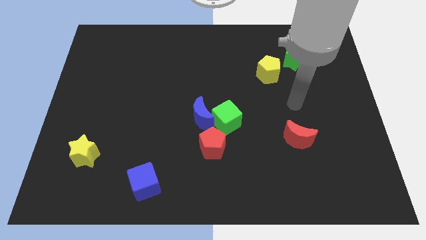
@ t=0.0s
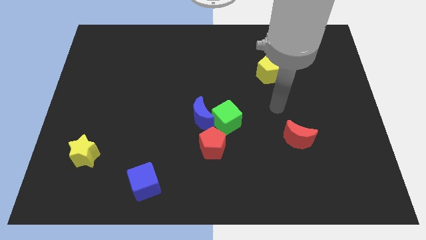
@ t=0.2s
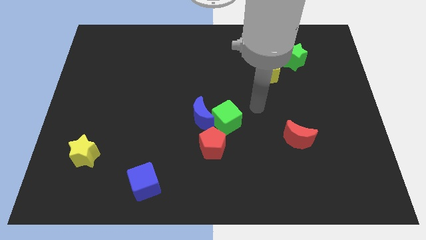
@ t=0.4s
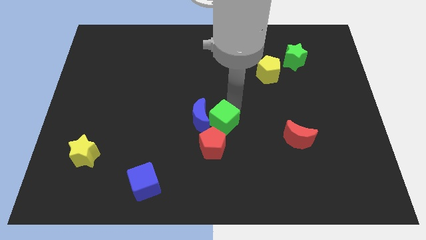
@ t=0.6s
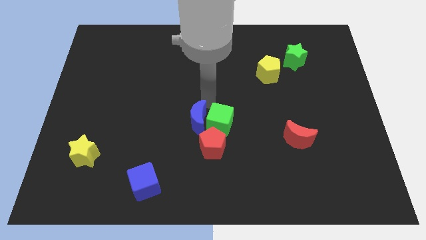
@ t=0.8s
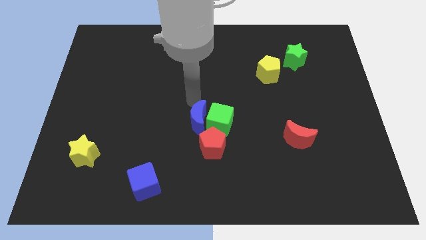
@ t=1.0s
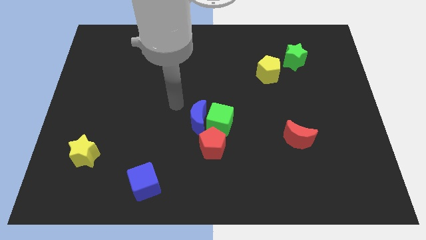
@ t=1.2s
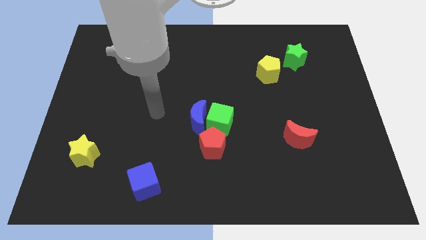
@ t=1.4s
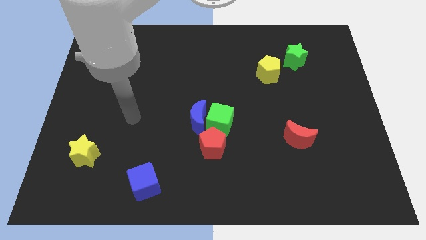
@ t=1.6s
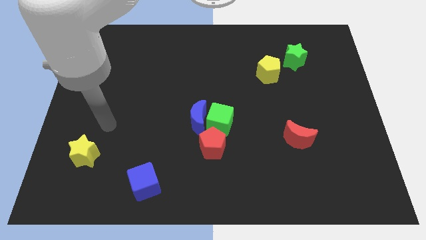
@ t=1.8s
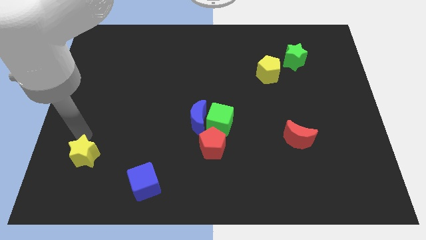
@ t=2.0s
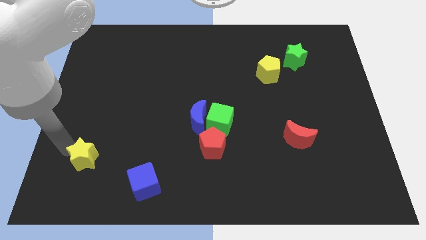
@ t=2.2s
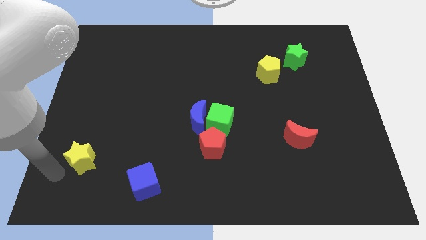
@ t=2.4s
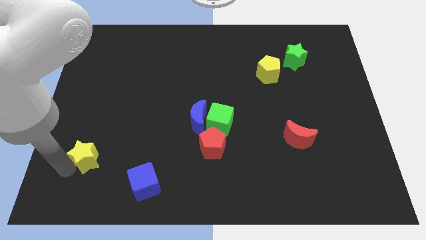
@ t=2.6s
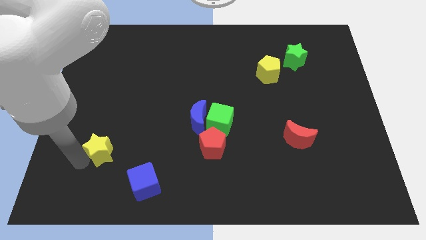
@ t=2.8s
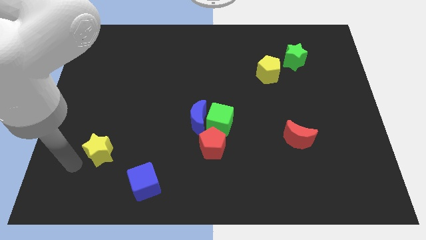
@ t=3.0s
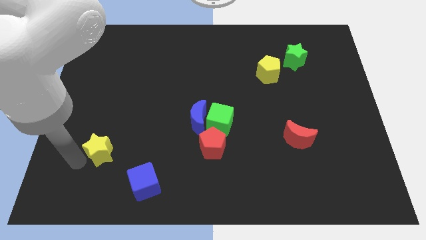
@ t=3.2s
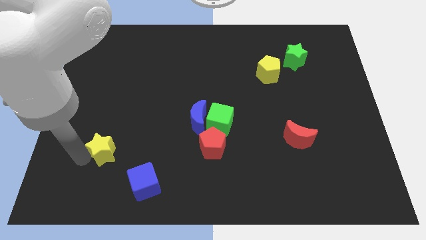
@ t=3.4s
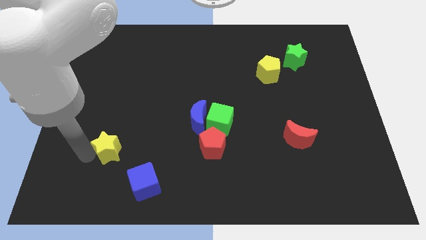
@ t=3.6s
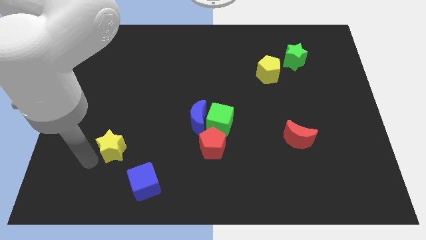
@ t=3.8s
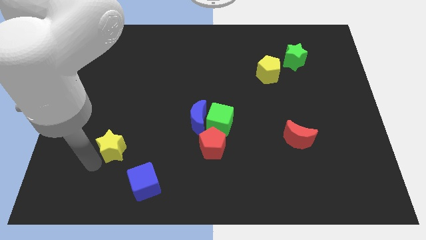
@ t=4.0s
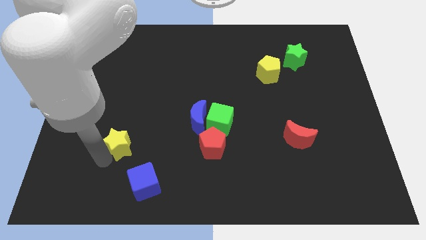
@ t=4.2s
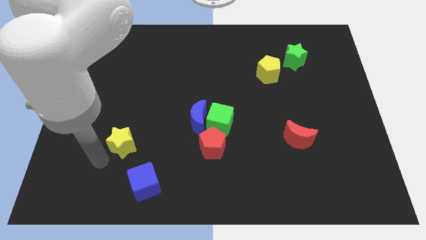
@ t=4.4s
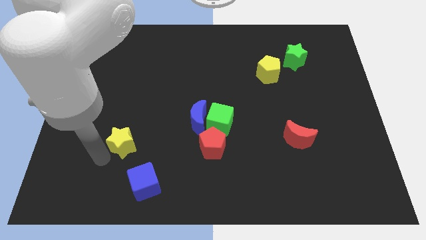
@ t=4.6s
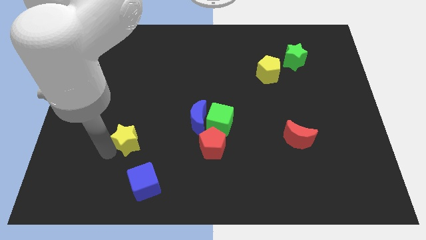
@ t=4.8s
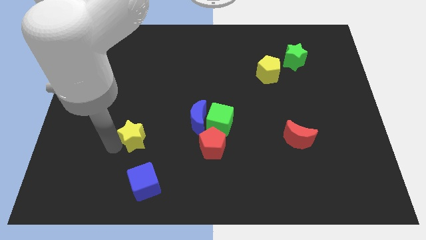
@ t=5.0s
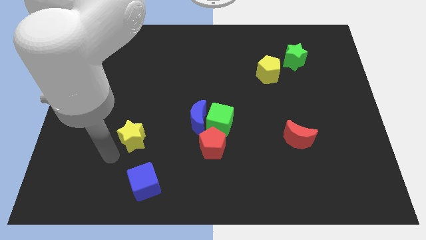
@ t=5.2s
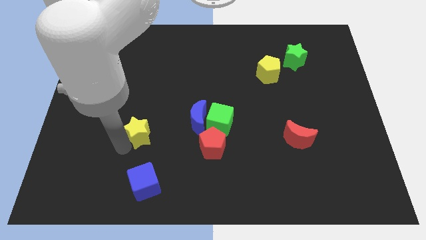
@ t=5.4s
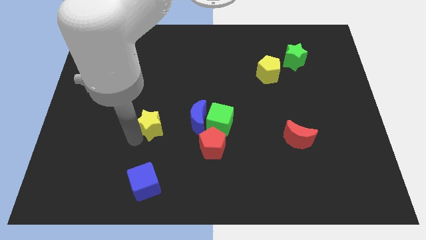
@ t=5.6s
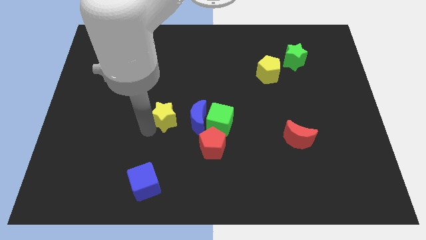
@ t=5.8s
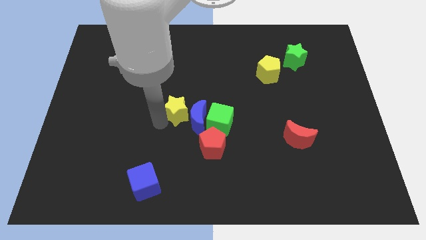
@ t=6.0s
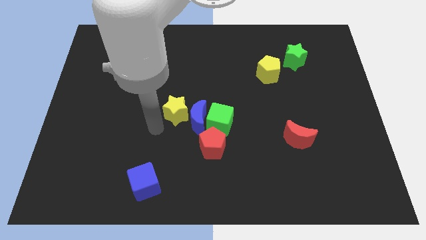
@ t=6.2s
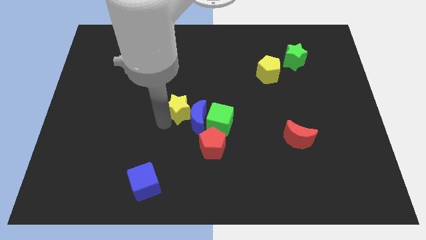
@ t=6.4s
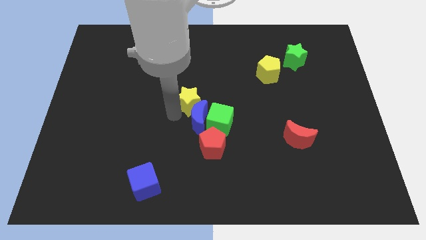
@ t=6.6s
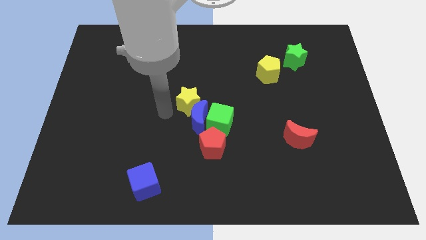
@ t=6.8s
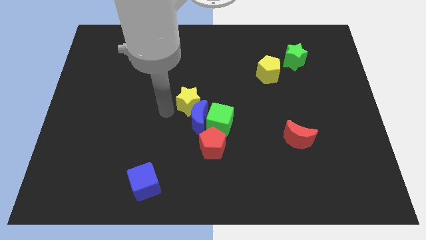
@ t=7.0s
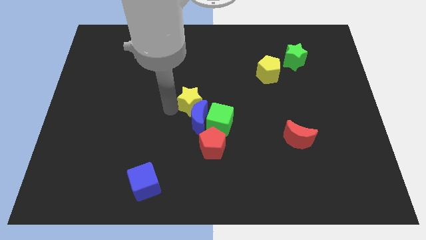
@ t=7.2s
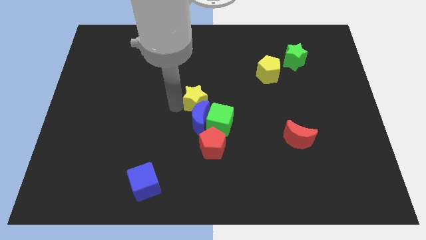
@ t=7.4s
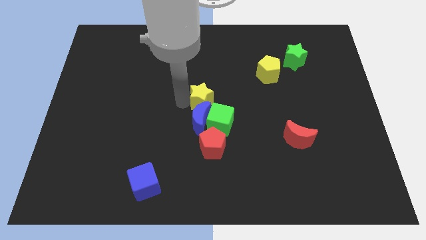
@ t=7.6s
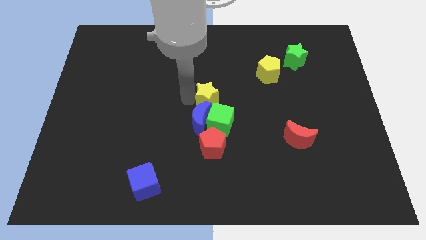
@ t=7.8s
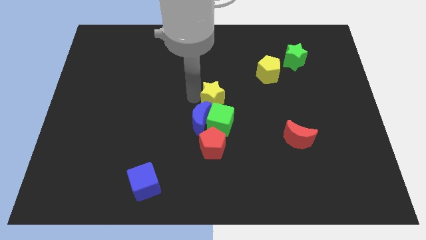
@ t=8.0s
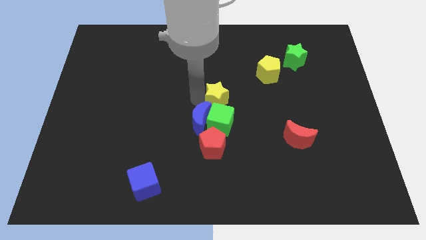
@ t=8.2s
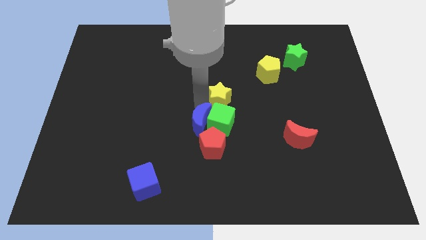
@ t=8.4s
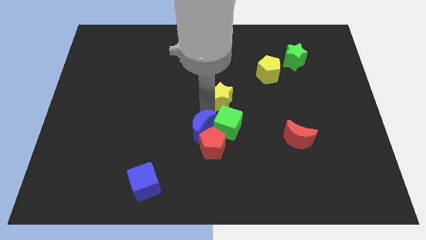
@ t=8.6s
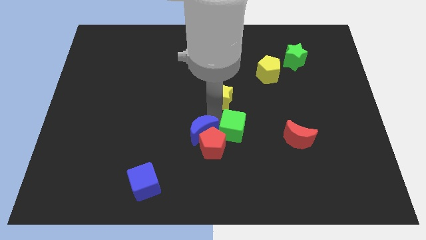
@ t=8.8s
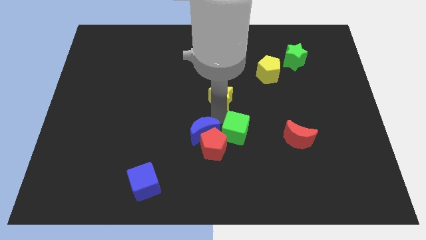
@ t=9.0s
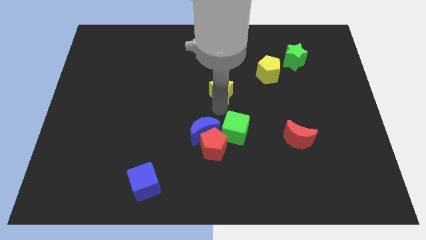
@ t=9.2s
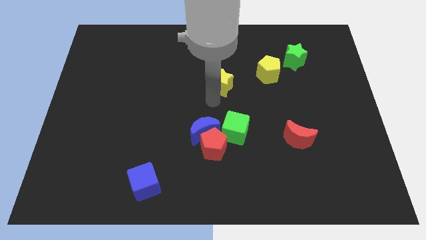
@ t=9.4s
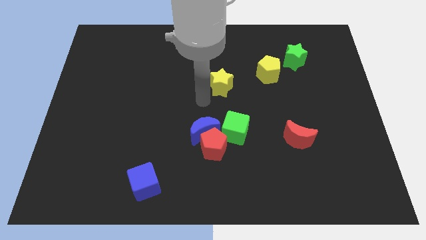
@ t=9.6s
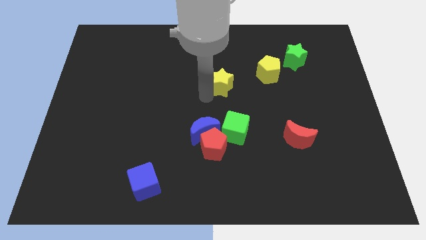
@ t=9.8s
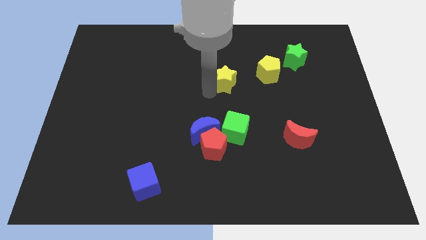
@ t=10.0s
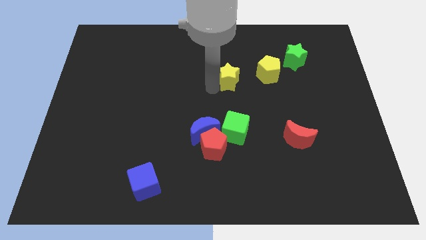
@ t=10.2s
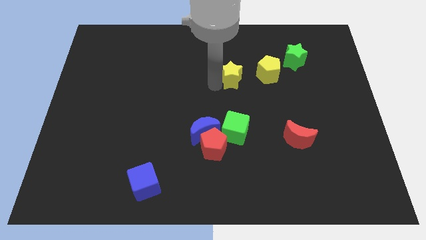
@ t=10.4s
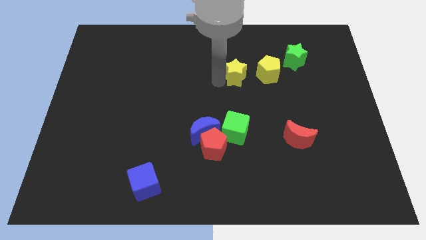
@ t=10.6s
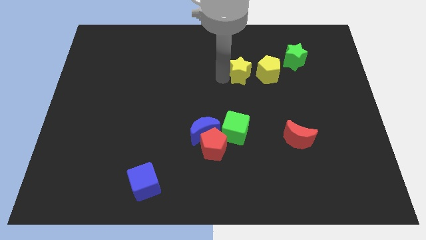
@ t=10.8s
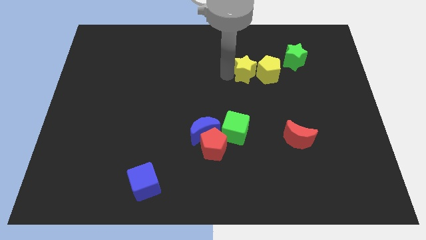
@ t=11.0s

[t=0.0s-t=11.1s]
push the yellow star left of the green star

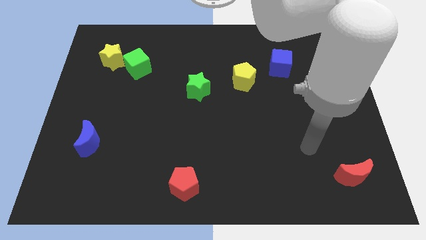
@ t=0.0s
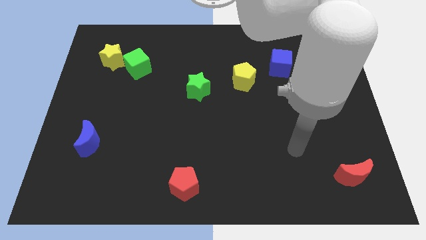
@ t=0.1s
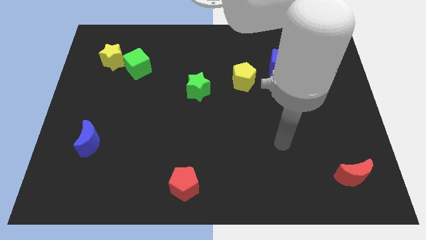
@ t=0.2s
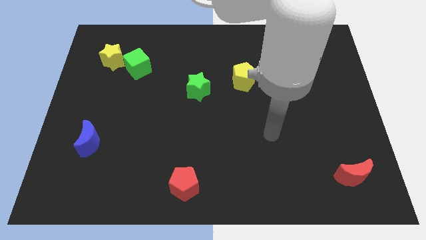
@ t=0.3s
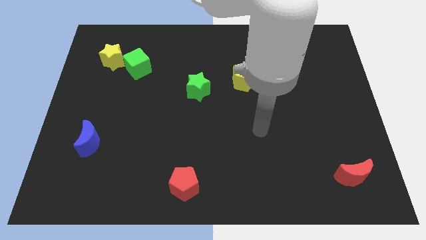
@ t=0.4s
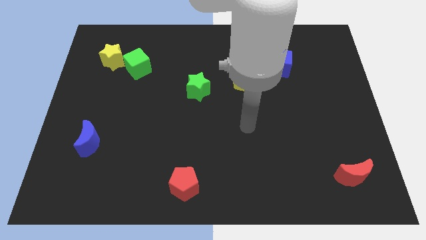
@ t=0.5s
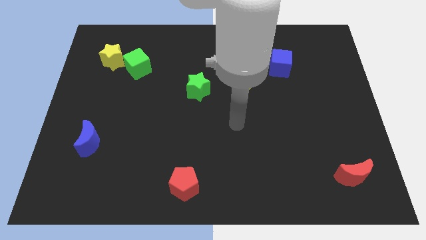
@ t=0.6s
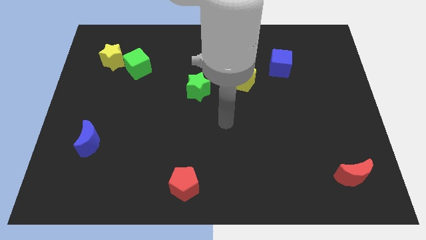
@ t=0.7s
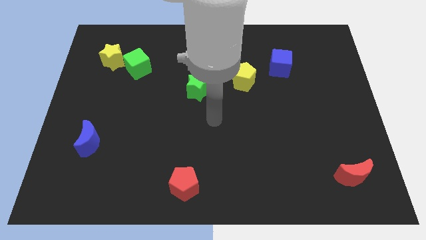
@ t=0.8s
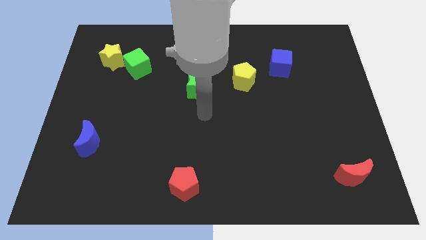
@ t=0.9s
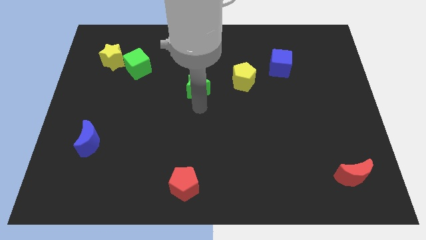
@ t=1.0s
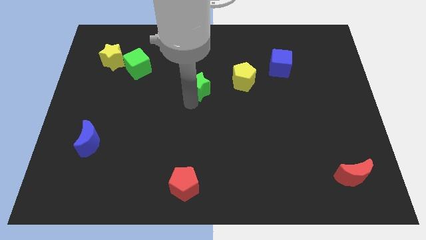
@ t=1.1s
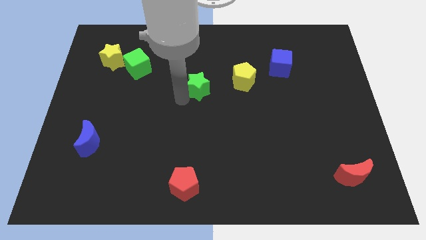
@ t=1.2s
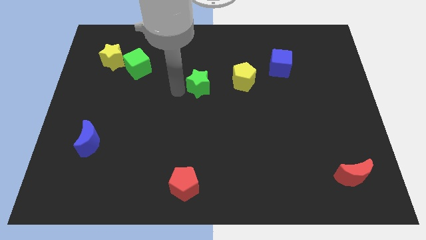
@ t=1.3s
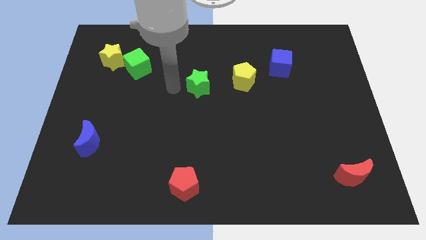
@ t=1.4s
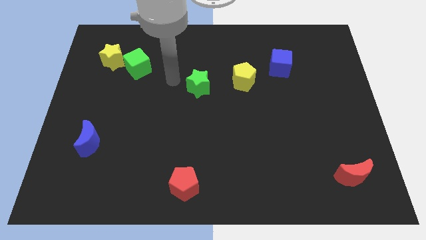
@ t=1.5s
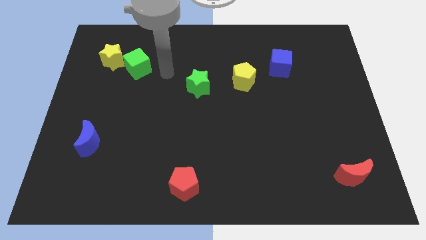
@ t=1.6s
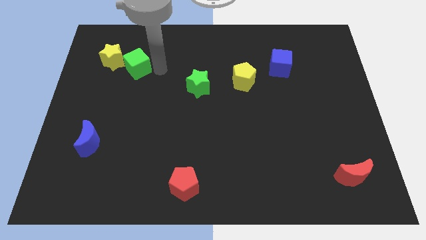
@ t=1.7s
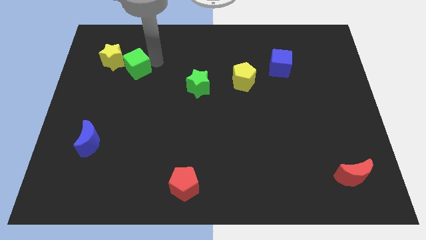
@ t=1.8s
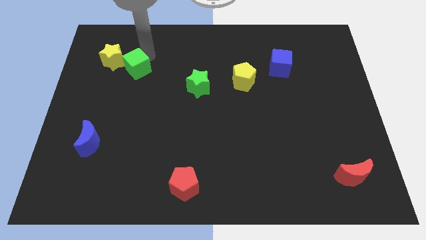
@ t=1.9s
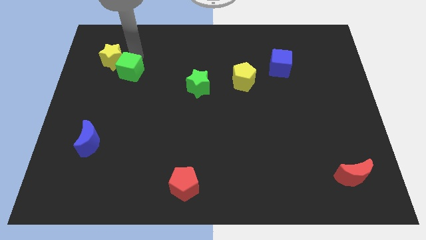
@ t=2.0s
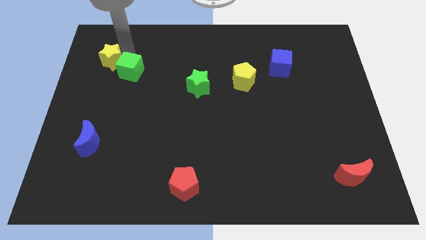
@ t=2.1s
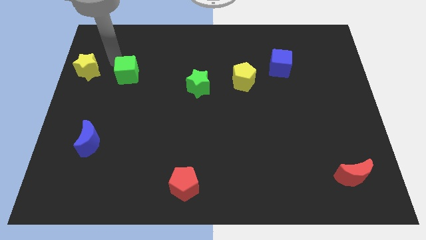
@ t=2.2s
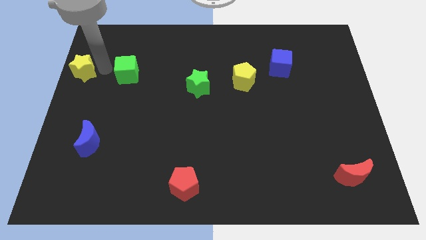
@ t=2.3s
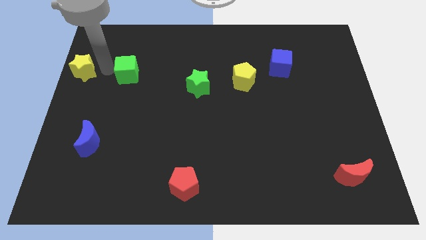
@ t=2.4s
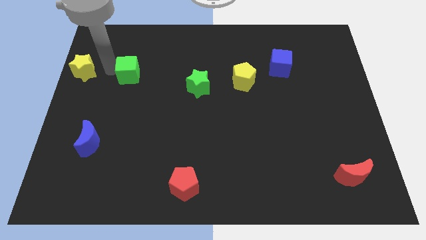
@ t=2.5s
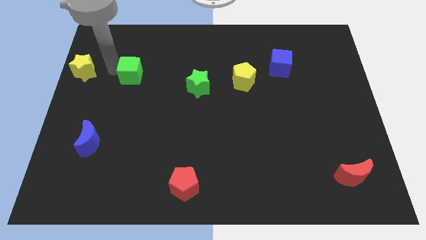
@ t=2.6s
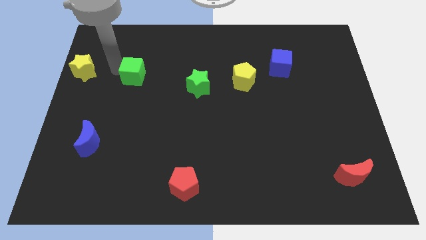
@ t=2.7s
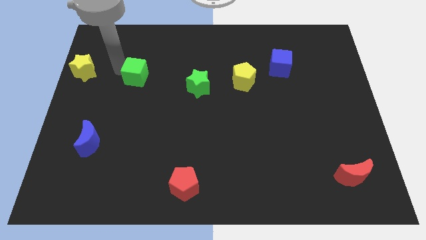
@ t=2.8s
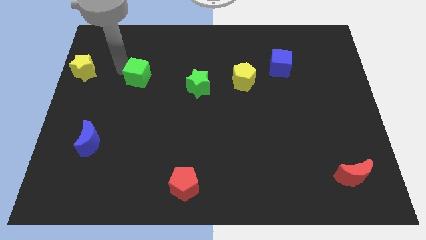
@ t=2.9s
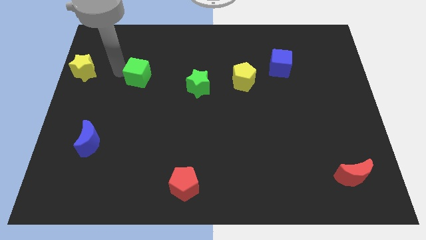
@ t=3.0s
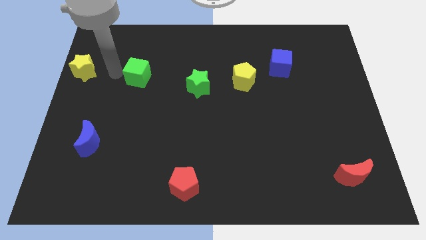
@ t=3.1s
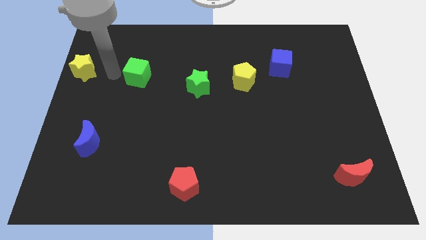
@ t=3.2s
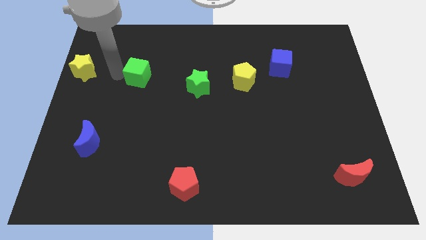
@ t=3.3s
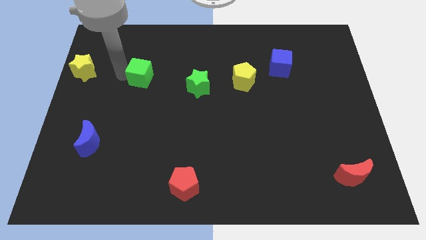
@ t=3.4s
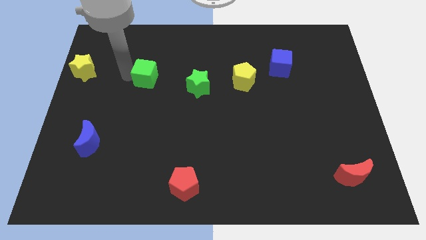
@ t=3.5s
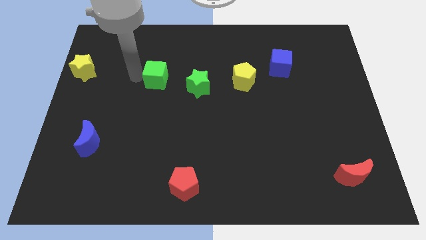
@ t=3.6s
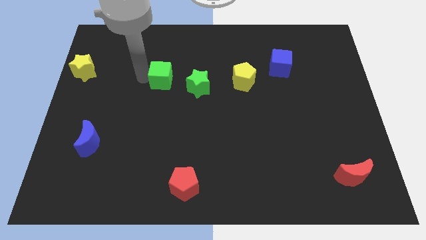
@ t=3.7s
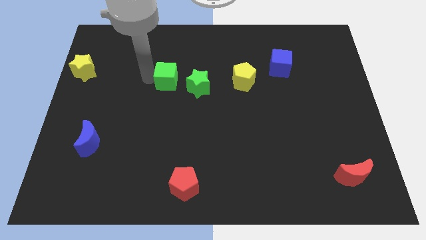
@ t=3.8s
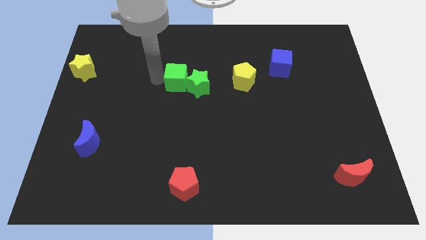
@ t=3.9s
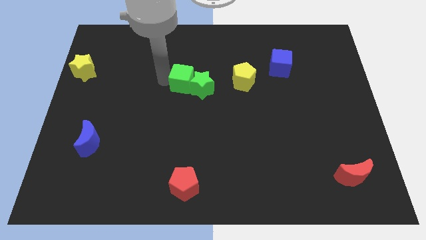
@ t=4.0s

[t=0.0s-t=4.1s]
push the green cube to the left of the yellow pentagon
